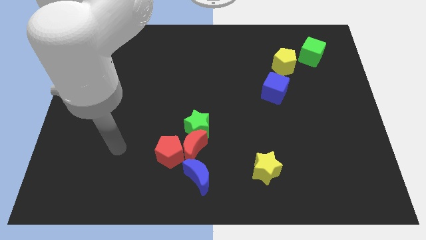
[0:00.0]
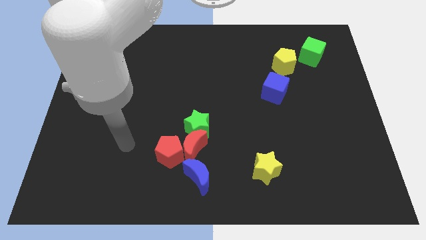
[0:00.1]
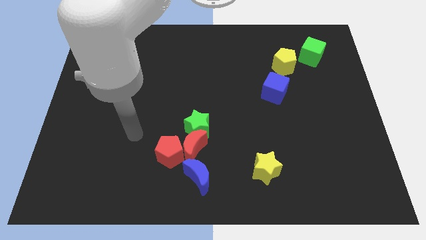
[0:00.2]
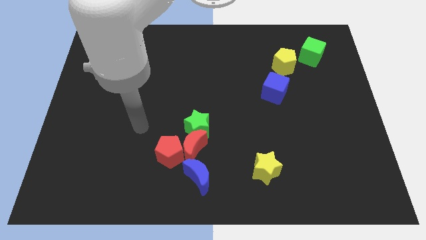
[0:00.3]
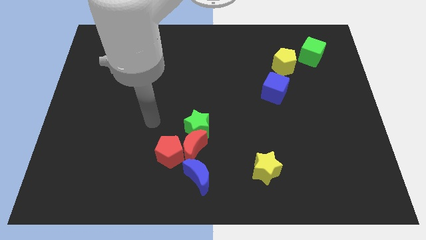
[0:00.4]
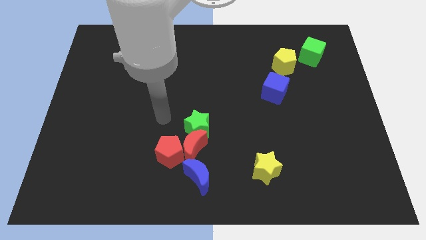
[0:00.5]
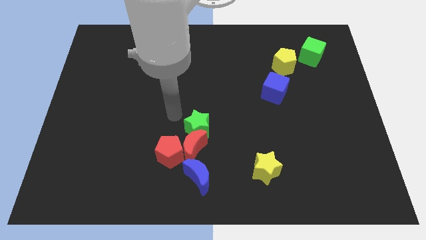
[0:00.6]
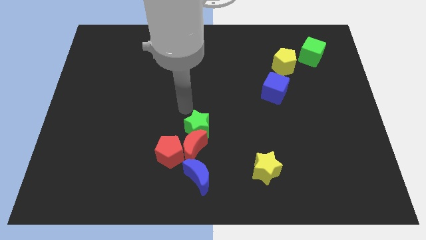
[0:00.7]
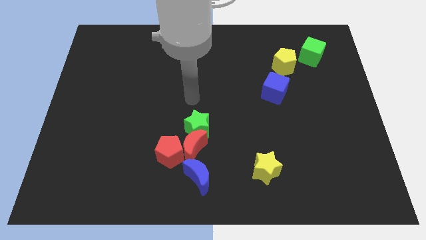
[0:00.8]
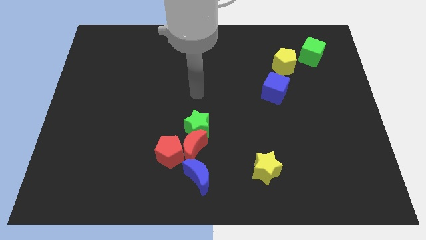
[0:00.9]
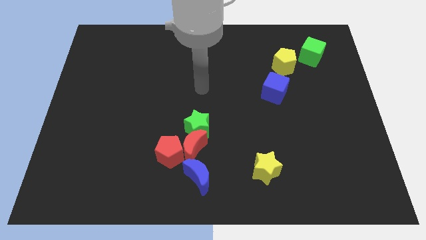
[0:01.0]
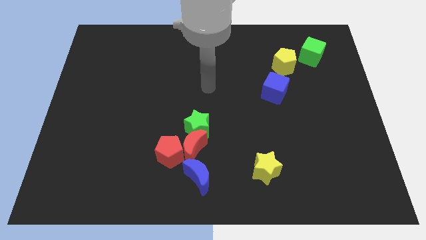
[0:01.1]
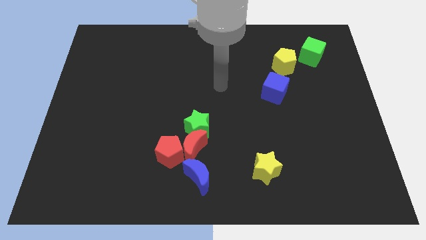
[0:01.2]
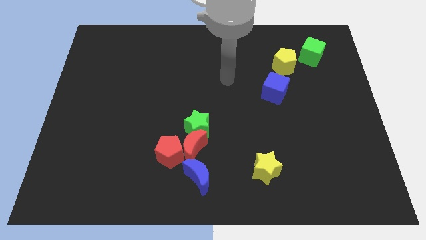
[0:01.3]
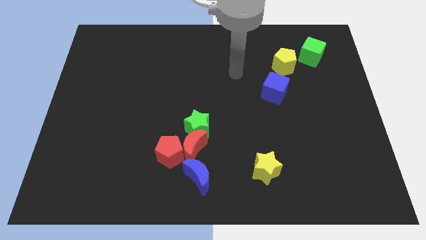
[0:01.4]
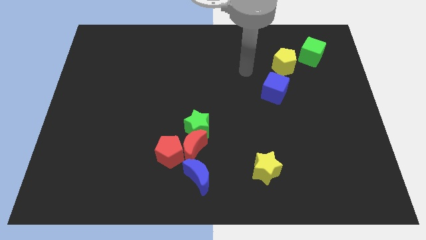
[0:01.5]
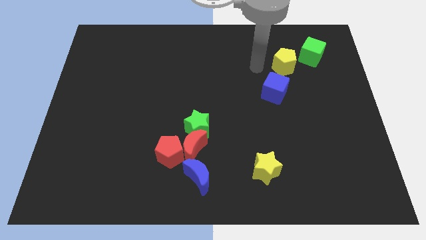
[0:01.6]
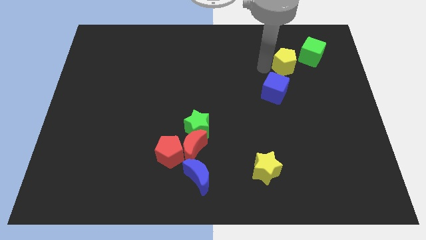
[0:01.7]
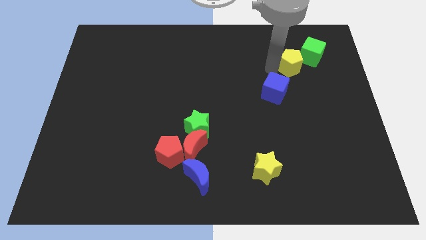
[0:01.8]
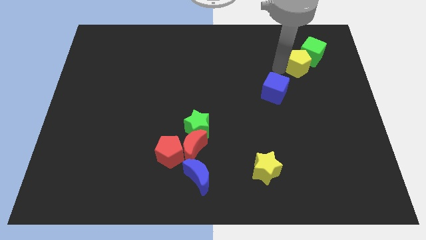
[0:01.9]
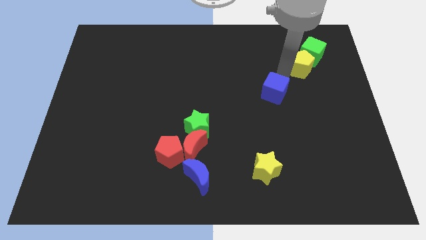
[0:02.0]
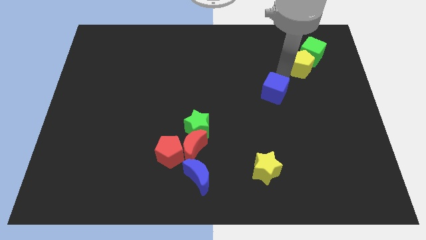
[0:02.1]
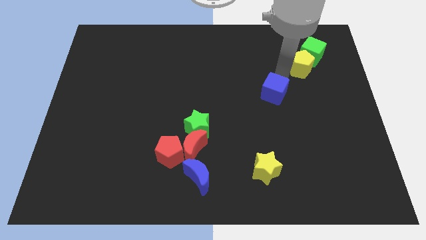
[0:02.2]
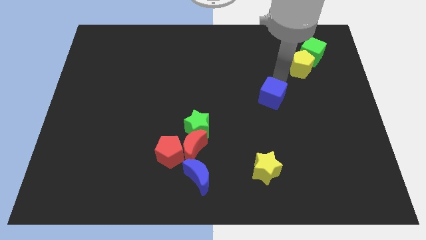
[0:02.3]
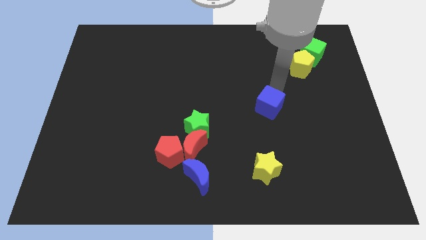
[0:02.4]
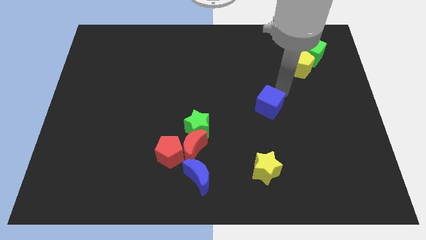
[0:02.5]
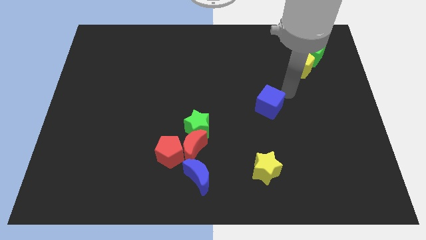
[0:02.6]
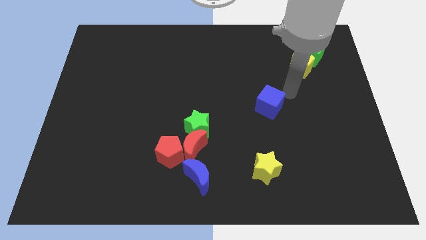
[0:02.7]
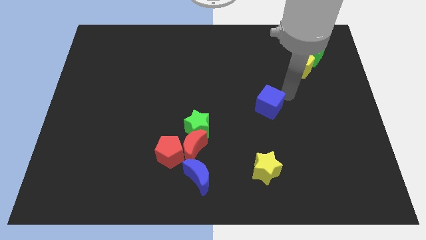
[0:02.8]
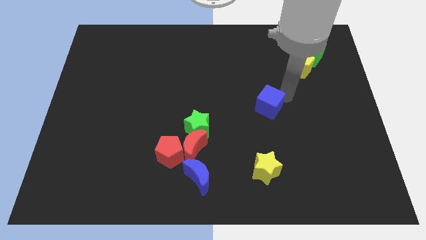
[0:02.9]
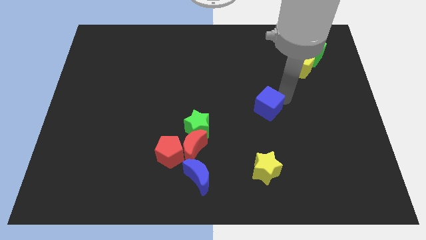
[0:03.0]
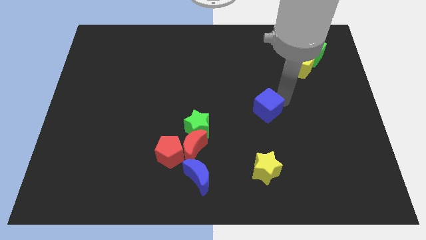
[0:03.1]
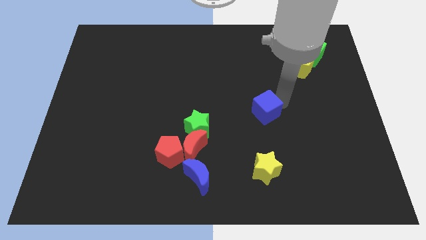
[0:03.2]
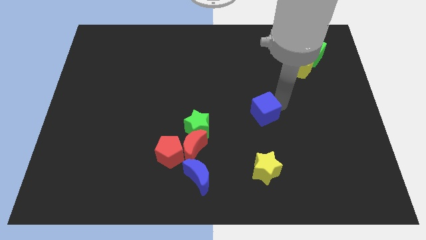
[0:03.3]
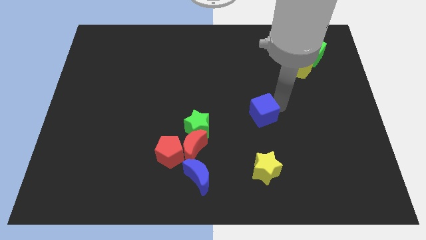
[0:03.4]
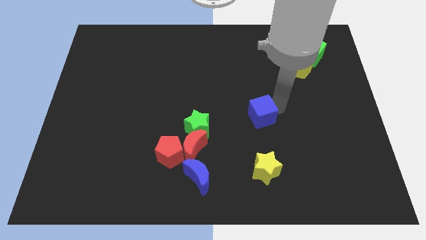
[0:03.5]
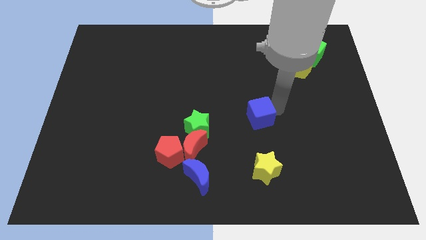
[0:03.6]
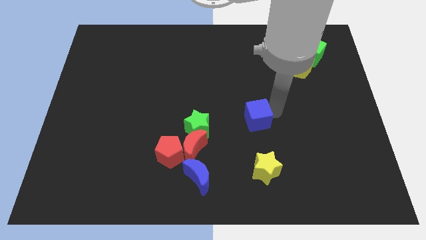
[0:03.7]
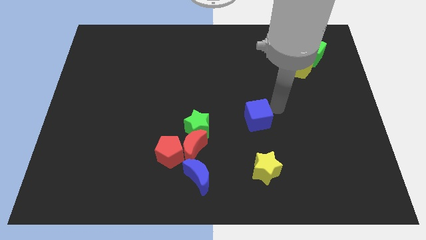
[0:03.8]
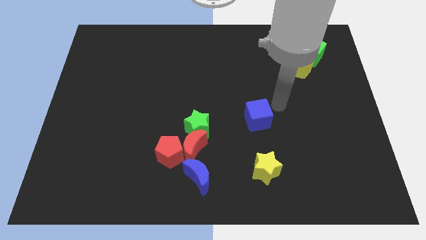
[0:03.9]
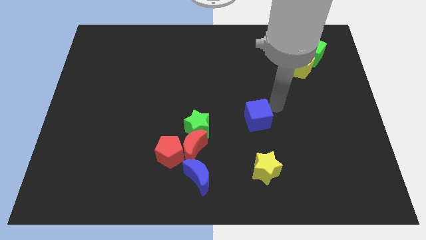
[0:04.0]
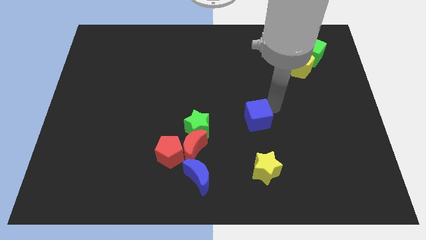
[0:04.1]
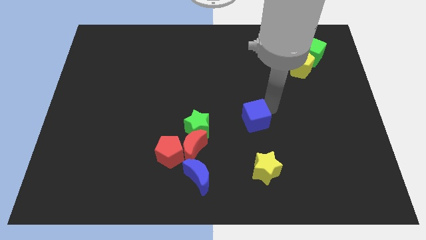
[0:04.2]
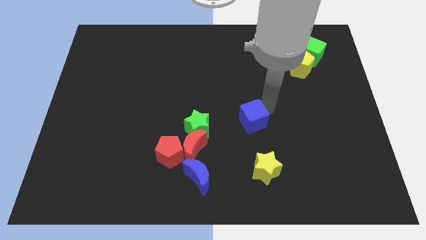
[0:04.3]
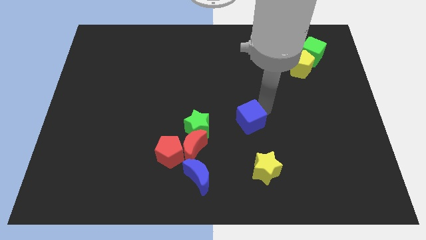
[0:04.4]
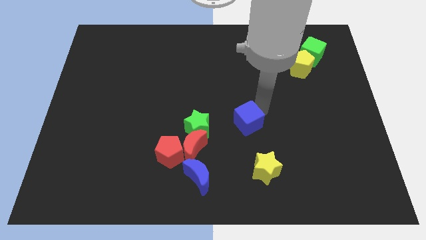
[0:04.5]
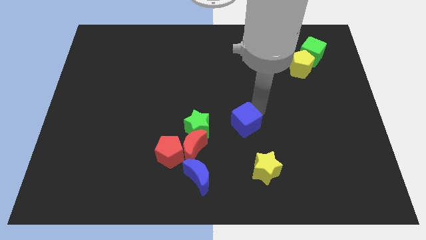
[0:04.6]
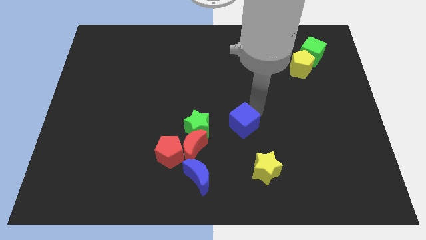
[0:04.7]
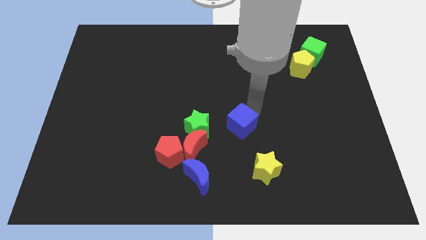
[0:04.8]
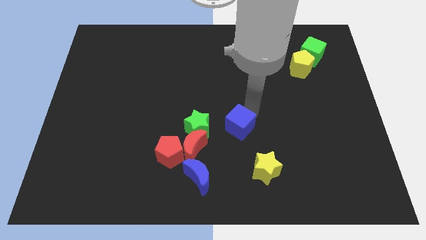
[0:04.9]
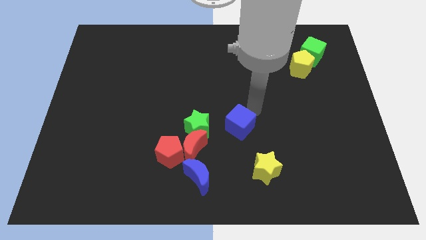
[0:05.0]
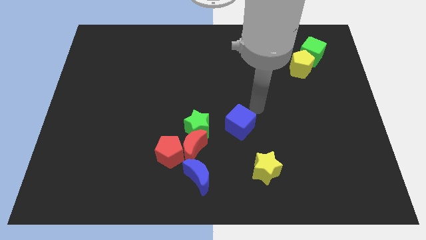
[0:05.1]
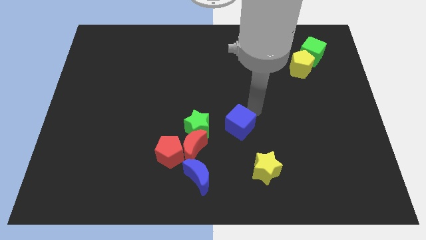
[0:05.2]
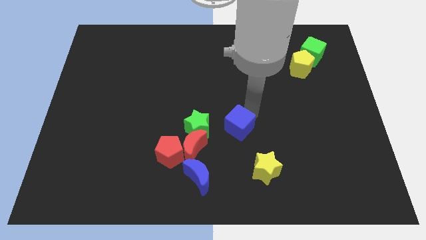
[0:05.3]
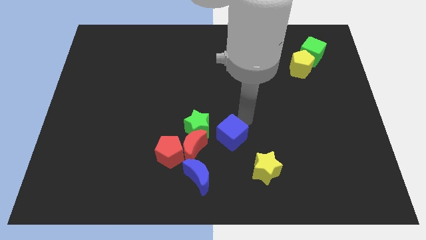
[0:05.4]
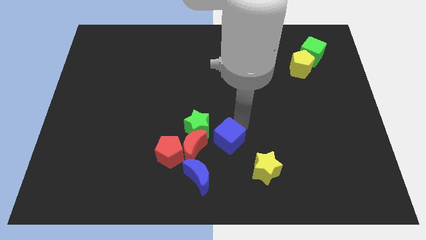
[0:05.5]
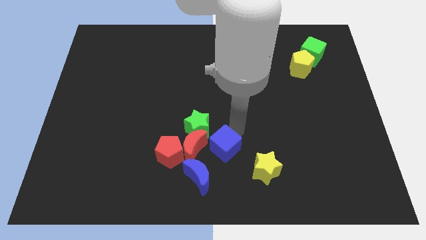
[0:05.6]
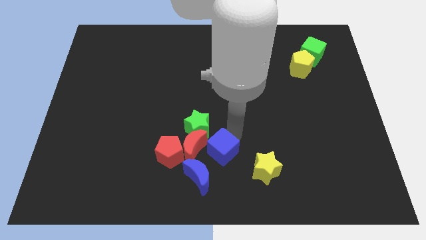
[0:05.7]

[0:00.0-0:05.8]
move the blue cube towards the red moon
